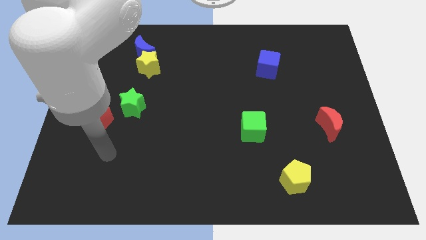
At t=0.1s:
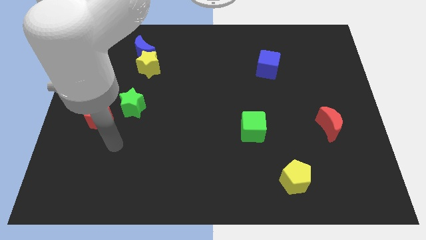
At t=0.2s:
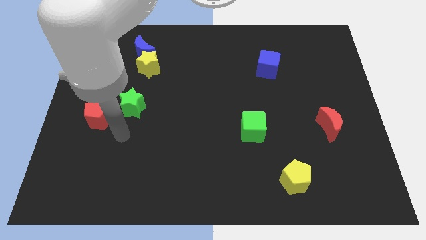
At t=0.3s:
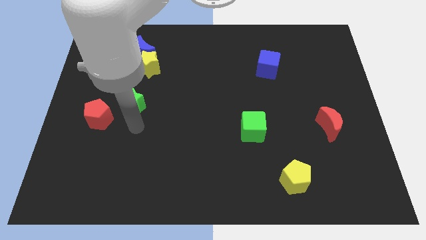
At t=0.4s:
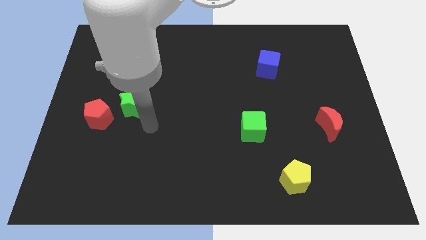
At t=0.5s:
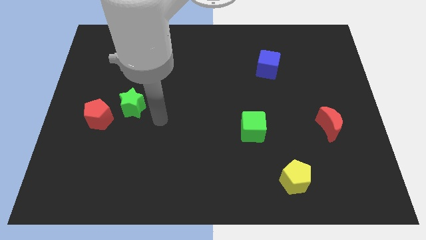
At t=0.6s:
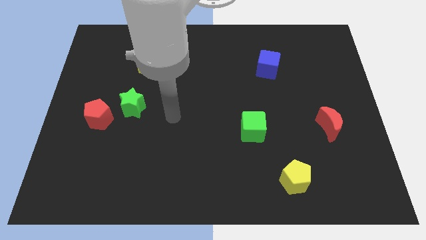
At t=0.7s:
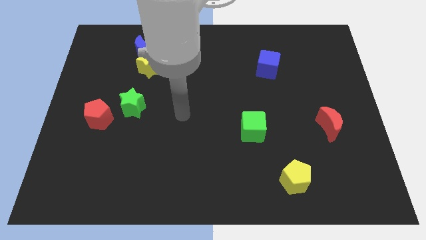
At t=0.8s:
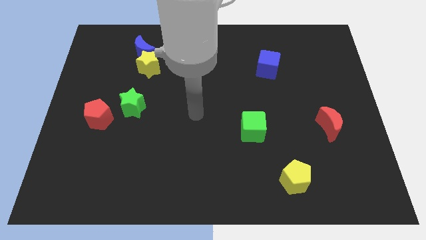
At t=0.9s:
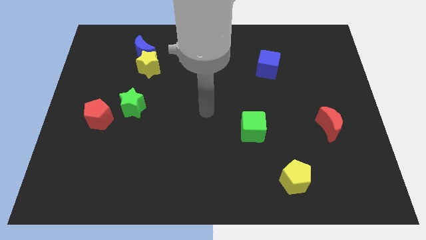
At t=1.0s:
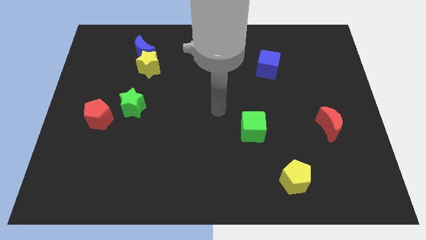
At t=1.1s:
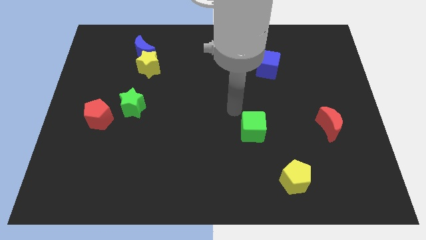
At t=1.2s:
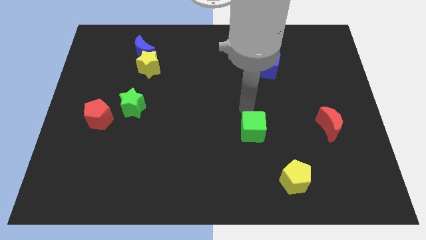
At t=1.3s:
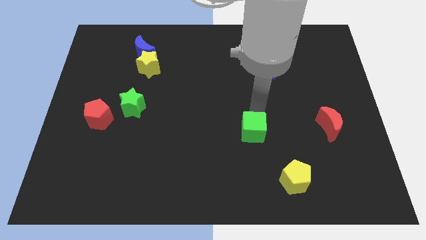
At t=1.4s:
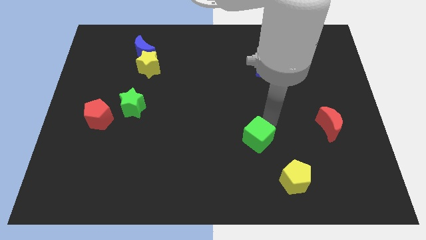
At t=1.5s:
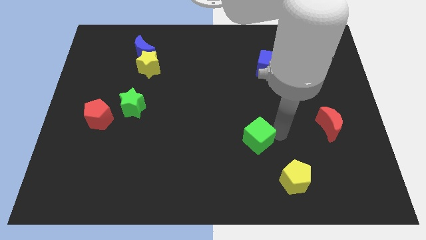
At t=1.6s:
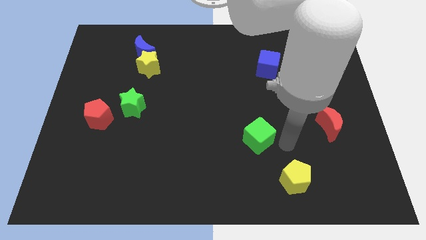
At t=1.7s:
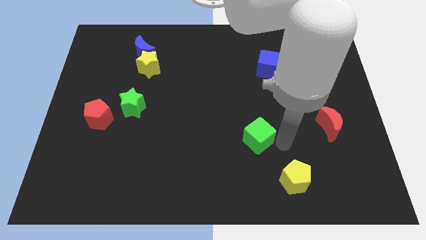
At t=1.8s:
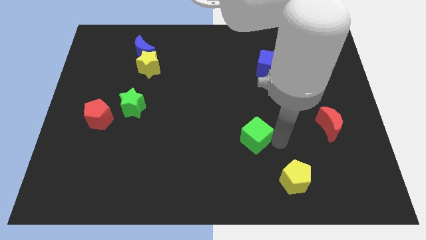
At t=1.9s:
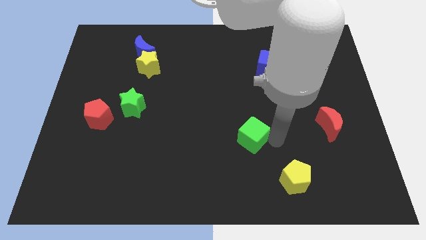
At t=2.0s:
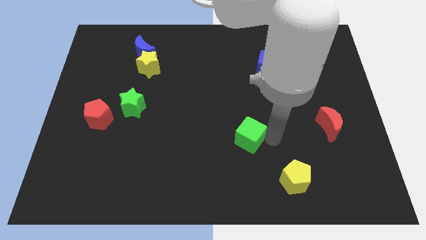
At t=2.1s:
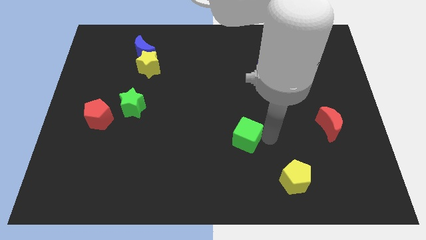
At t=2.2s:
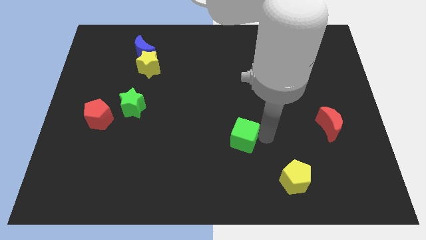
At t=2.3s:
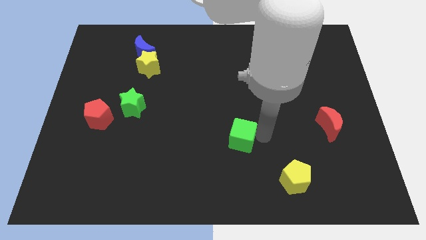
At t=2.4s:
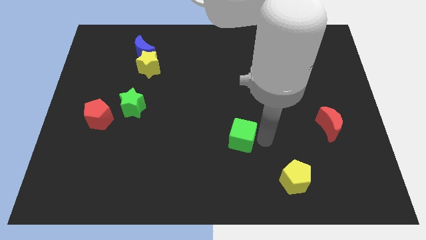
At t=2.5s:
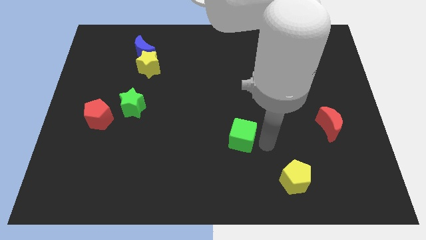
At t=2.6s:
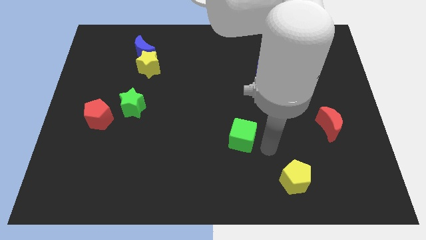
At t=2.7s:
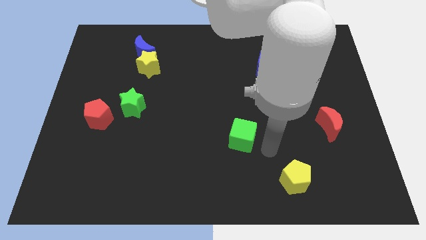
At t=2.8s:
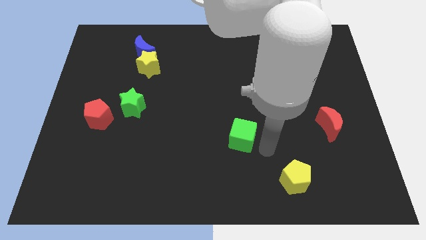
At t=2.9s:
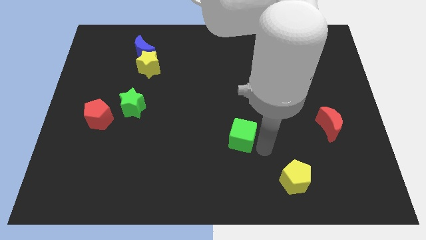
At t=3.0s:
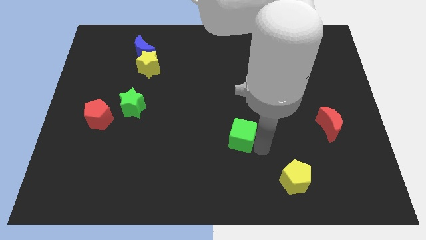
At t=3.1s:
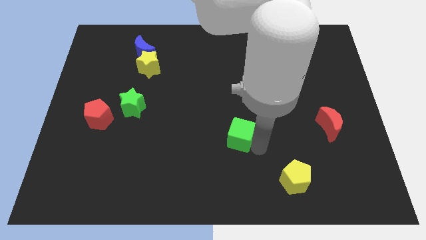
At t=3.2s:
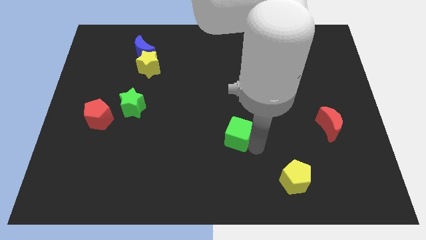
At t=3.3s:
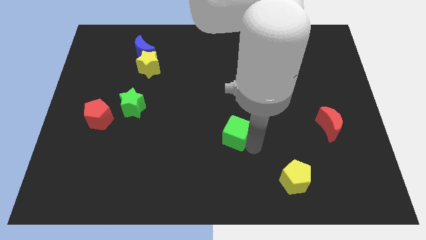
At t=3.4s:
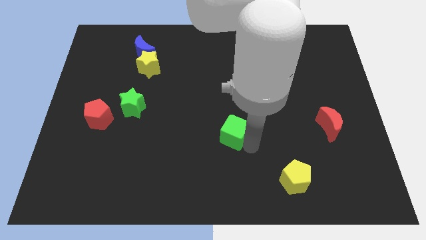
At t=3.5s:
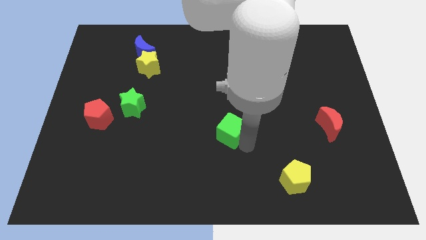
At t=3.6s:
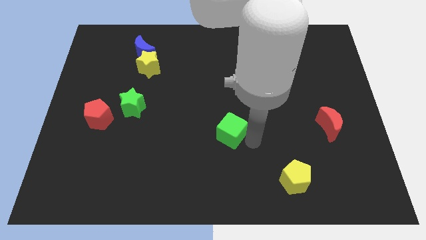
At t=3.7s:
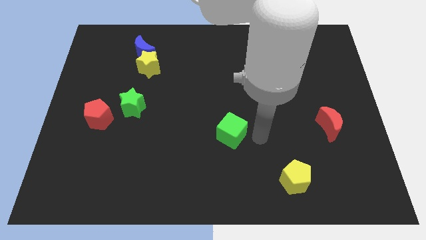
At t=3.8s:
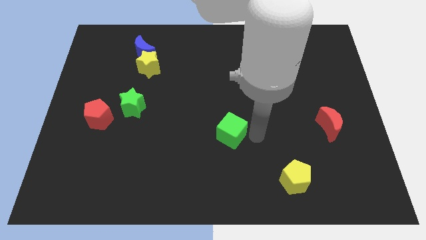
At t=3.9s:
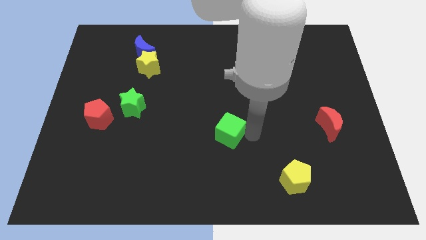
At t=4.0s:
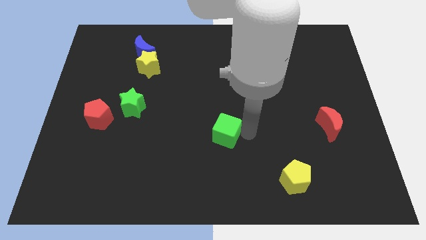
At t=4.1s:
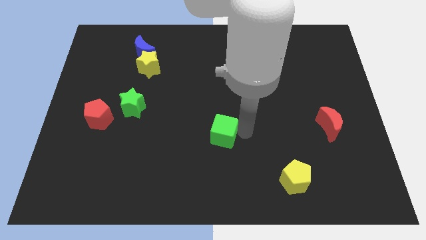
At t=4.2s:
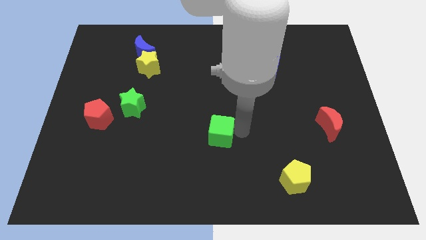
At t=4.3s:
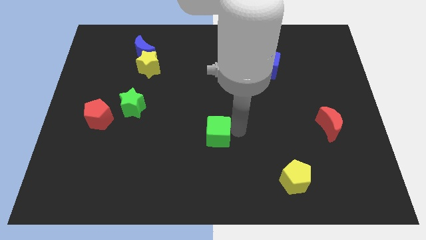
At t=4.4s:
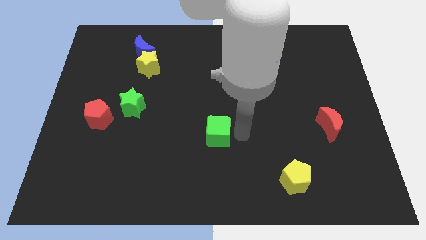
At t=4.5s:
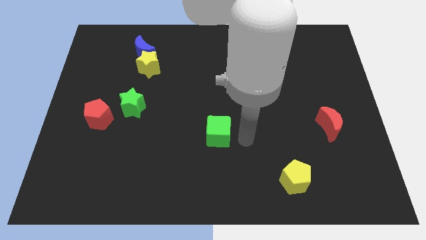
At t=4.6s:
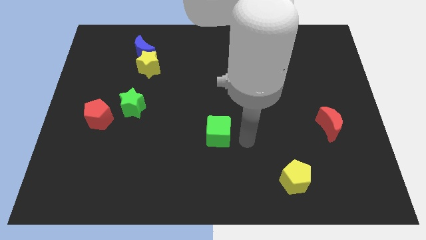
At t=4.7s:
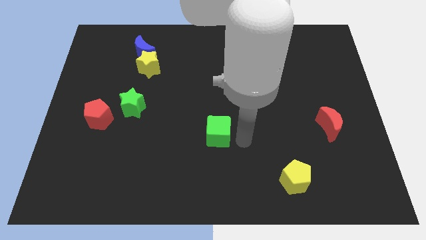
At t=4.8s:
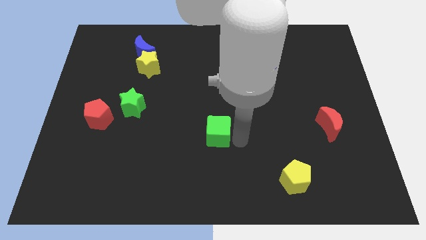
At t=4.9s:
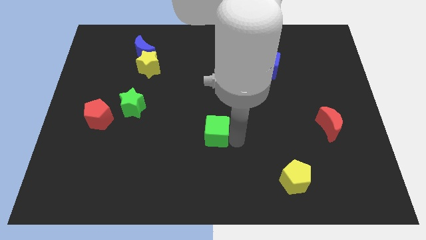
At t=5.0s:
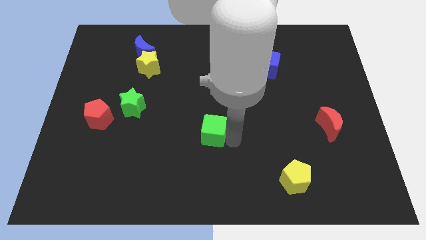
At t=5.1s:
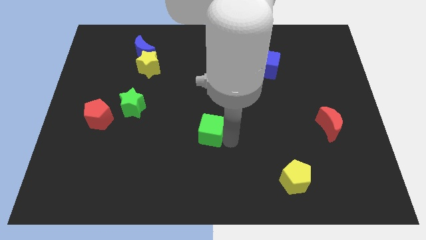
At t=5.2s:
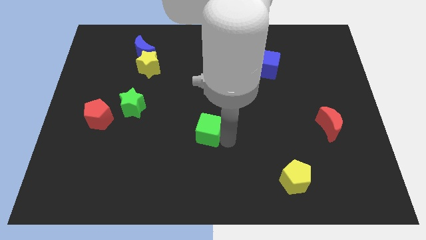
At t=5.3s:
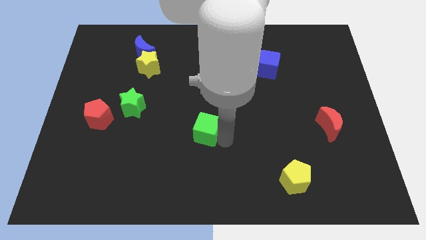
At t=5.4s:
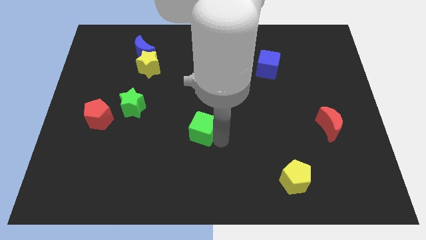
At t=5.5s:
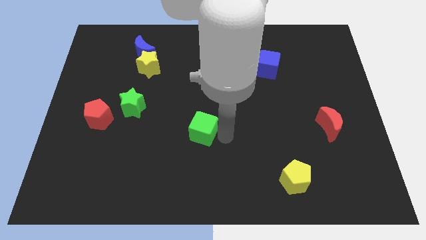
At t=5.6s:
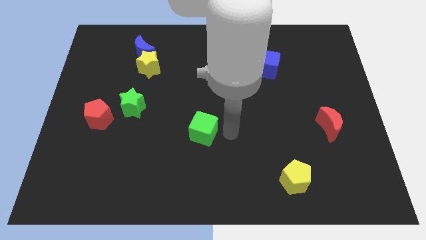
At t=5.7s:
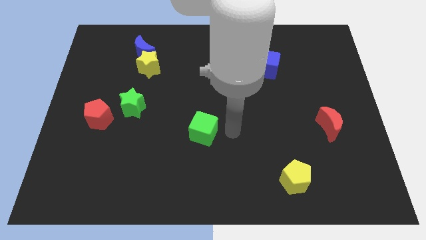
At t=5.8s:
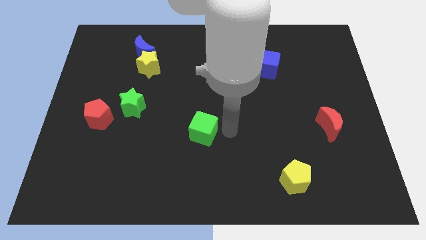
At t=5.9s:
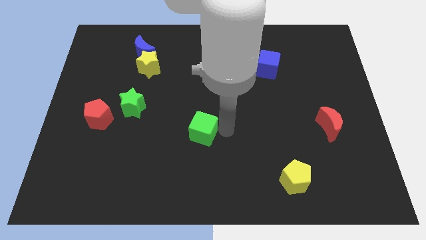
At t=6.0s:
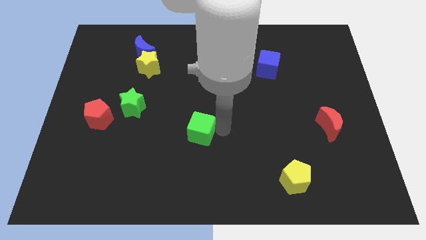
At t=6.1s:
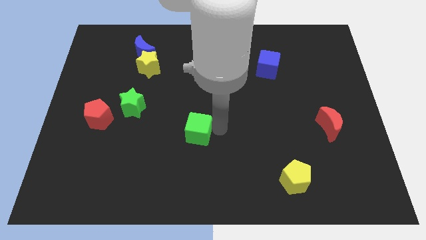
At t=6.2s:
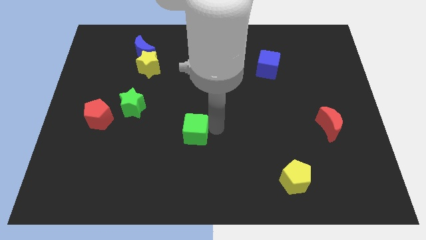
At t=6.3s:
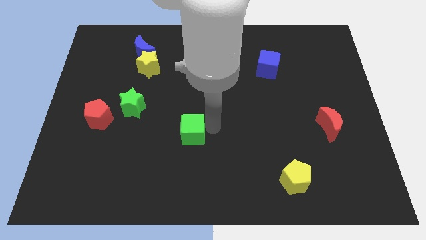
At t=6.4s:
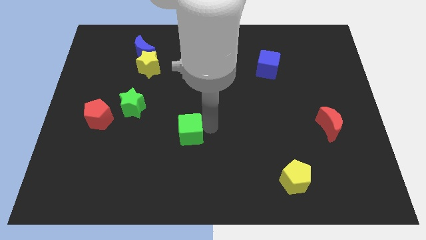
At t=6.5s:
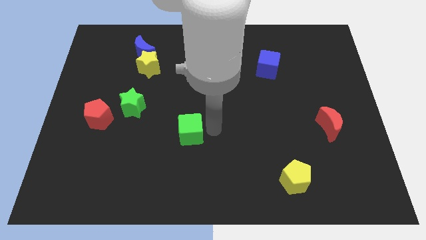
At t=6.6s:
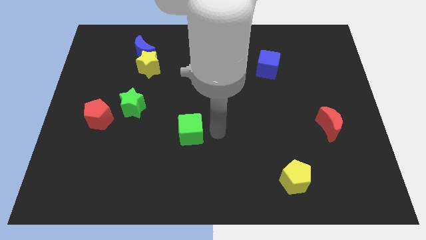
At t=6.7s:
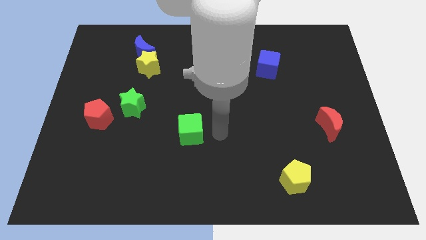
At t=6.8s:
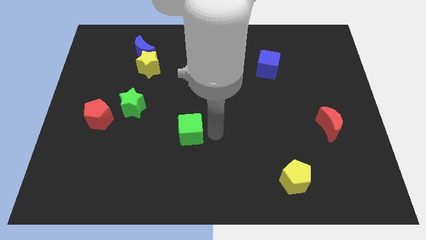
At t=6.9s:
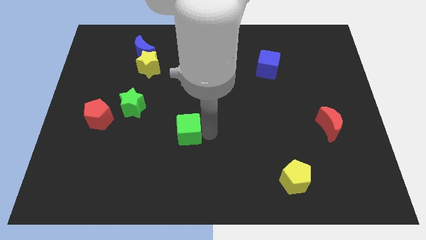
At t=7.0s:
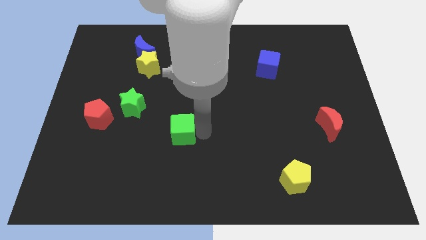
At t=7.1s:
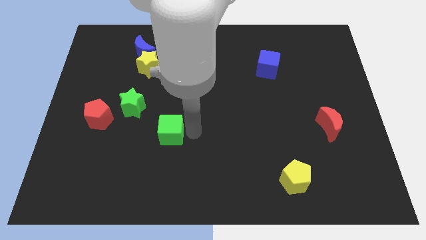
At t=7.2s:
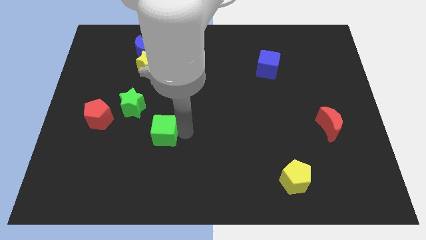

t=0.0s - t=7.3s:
slide the green cube left

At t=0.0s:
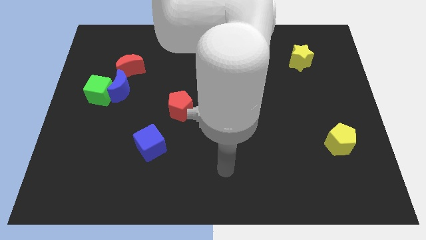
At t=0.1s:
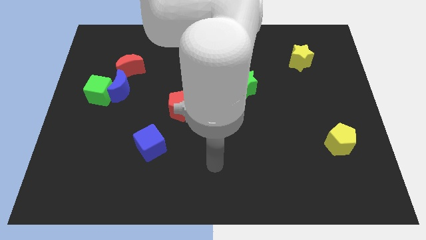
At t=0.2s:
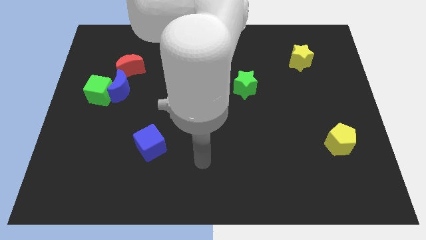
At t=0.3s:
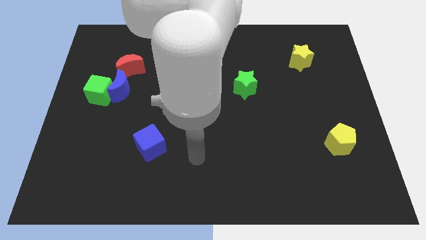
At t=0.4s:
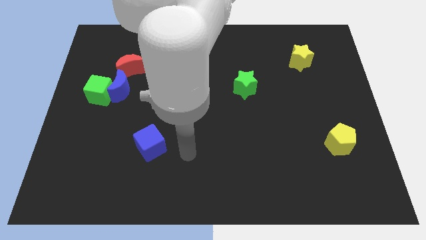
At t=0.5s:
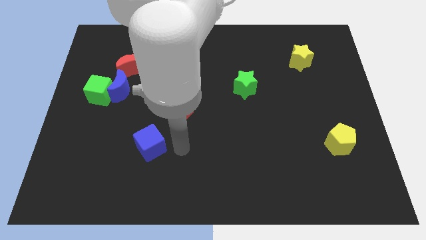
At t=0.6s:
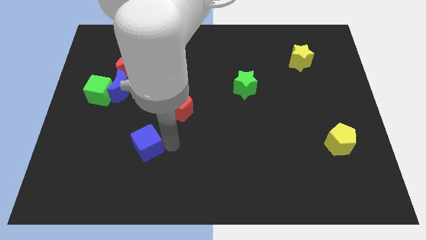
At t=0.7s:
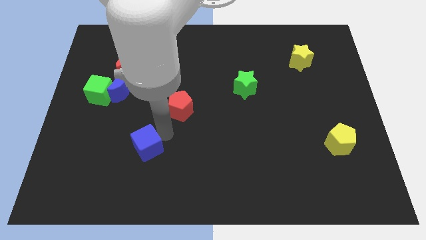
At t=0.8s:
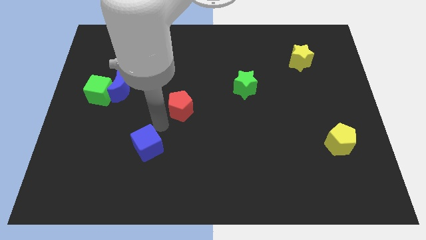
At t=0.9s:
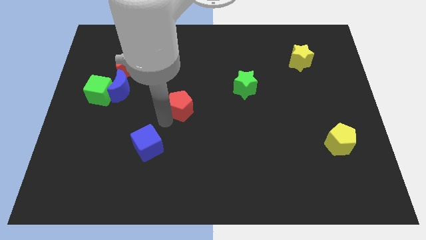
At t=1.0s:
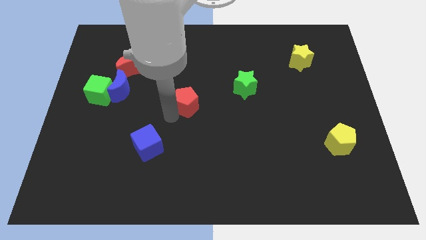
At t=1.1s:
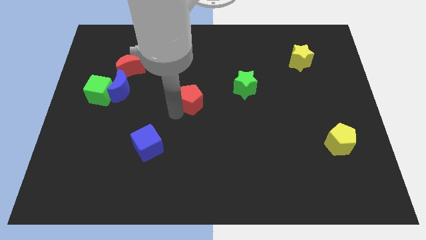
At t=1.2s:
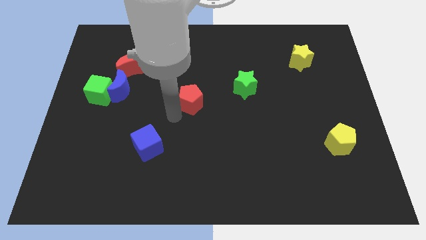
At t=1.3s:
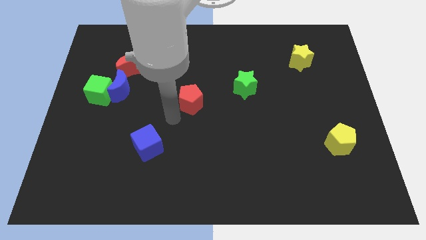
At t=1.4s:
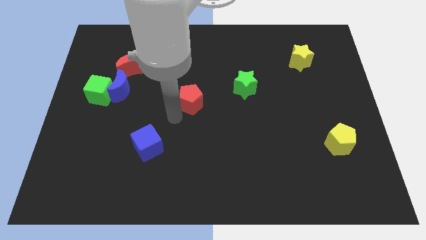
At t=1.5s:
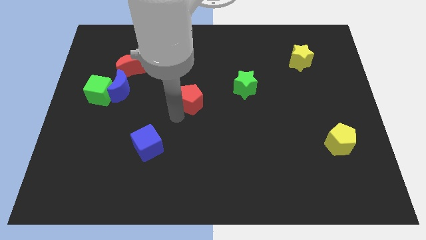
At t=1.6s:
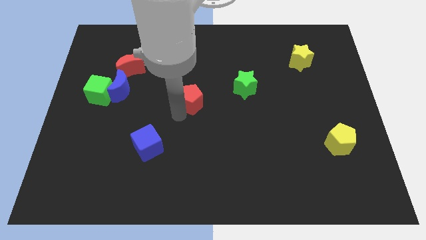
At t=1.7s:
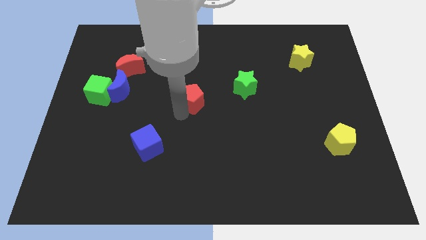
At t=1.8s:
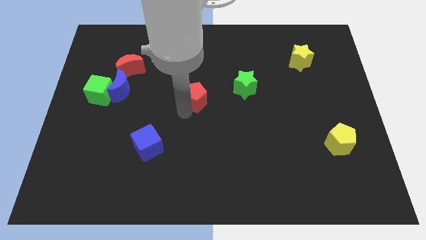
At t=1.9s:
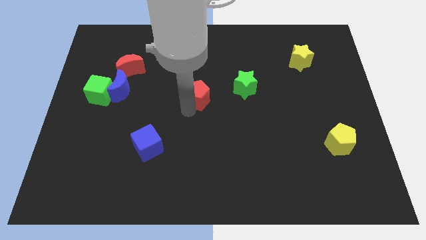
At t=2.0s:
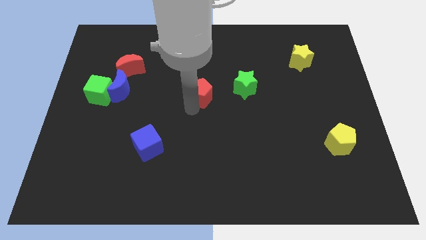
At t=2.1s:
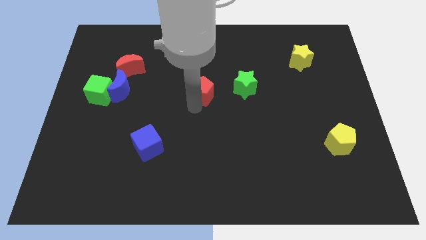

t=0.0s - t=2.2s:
slightly push the red pentagon upwards and right
